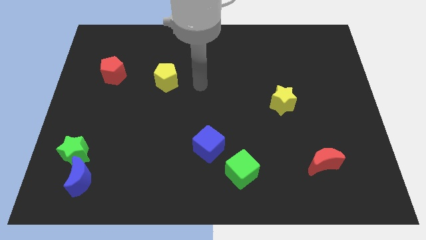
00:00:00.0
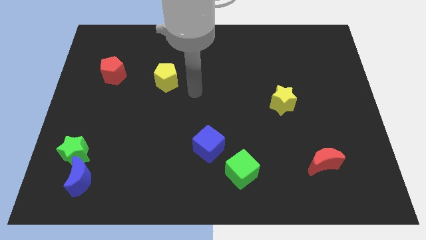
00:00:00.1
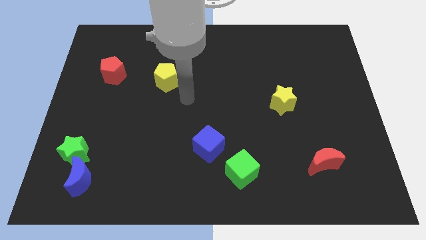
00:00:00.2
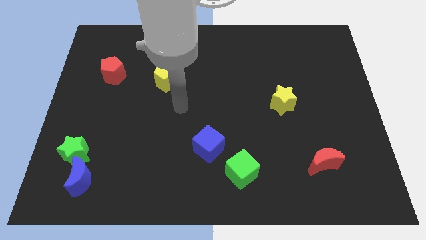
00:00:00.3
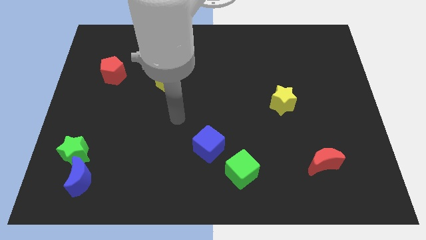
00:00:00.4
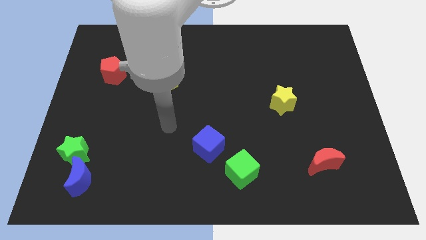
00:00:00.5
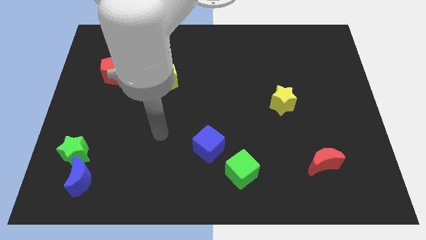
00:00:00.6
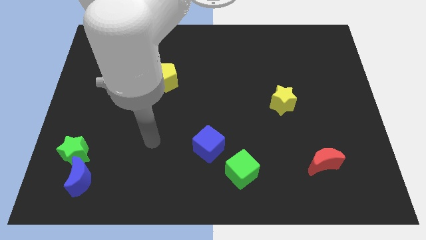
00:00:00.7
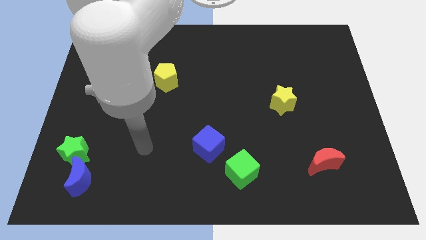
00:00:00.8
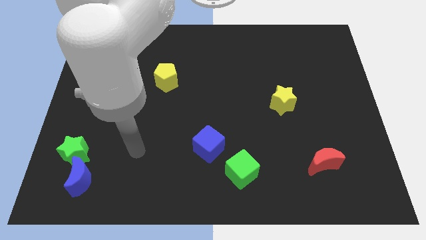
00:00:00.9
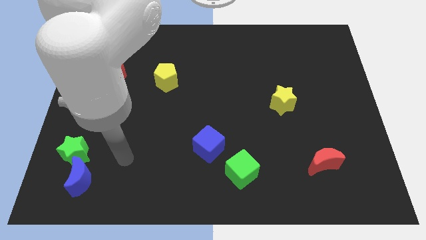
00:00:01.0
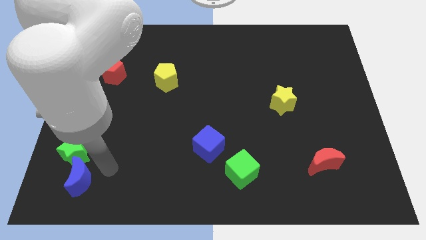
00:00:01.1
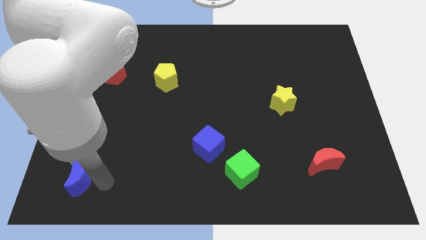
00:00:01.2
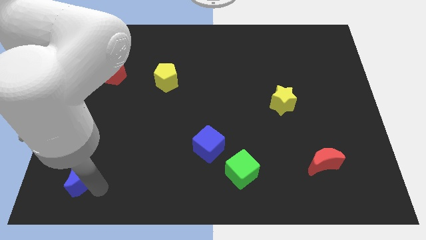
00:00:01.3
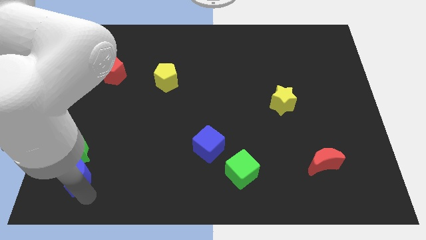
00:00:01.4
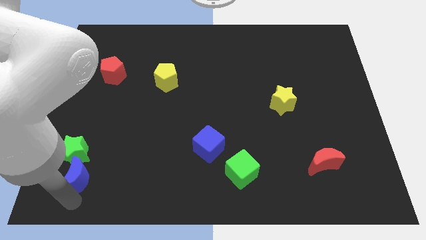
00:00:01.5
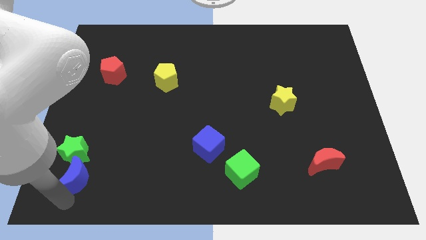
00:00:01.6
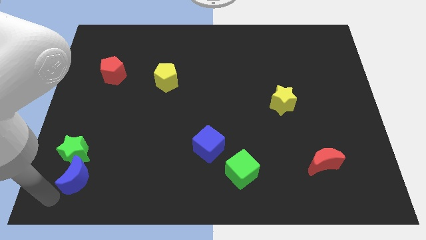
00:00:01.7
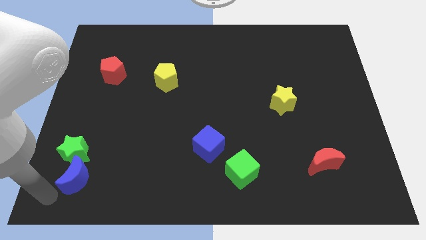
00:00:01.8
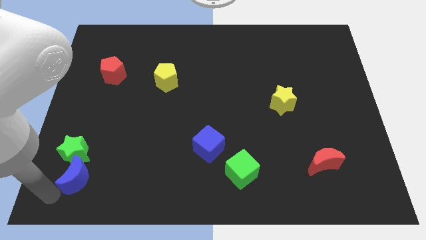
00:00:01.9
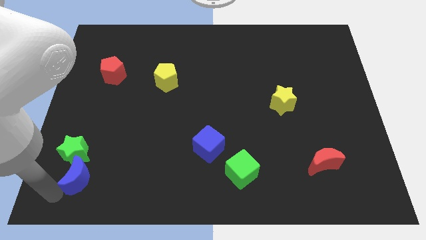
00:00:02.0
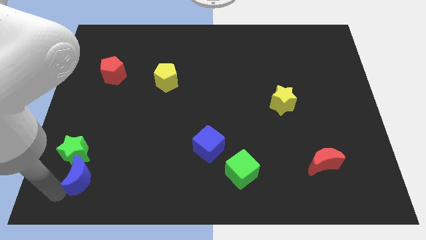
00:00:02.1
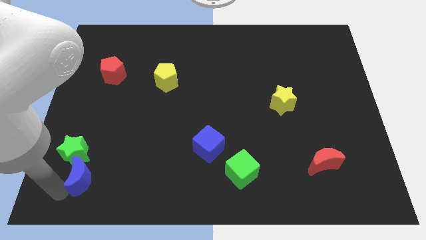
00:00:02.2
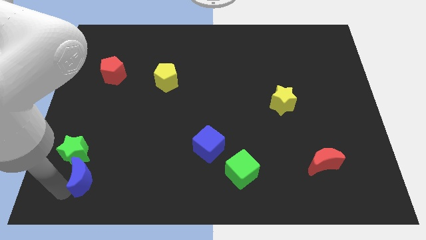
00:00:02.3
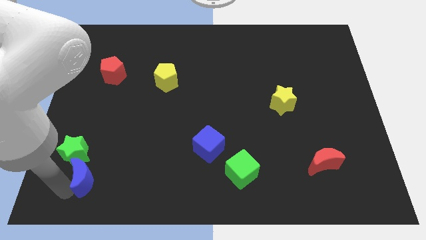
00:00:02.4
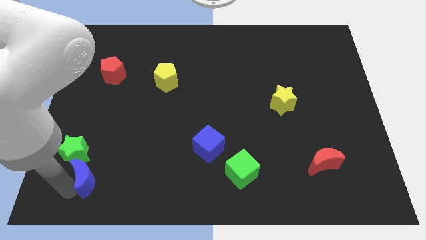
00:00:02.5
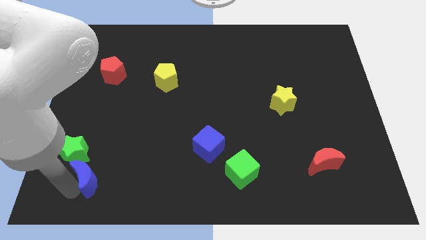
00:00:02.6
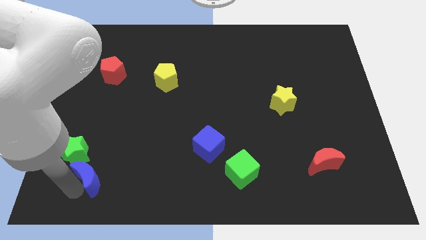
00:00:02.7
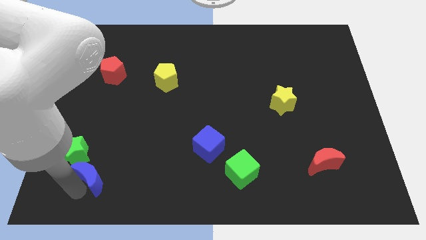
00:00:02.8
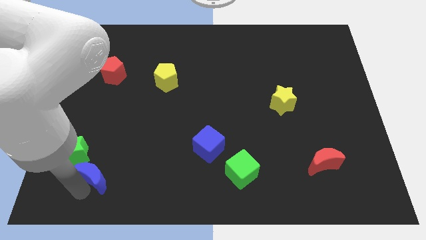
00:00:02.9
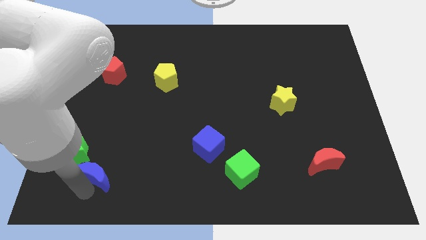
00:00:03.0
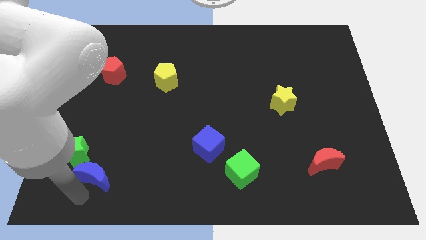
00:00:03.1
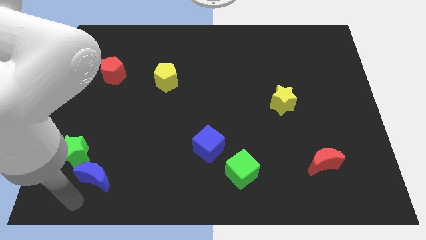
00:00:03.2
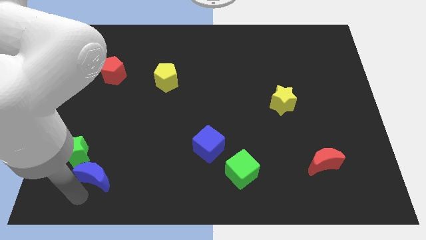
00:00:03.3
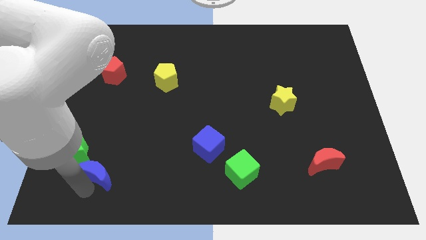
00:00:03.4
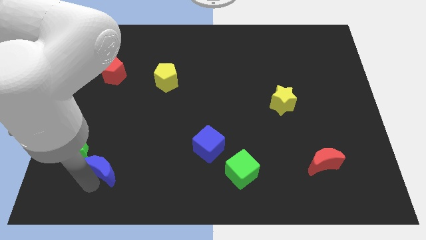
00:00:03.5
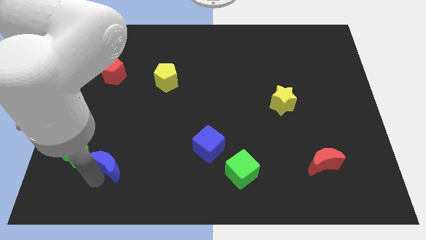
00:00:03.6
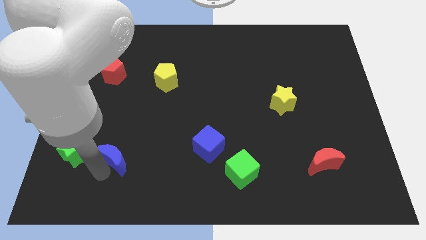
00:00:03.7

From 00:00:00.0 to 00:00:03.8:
push the blue moon a little bit up and then to the right

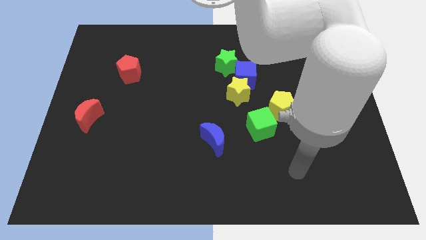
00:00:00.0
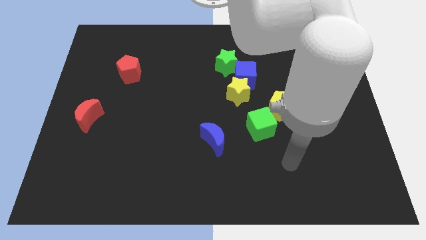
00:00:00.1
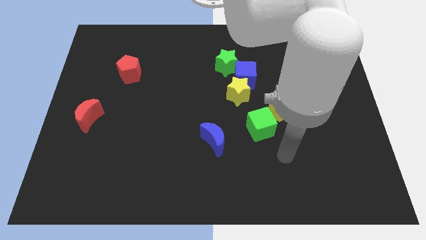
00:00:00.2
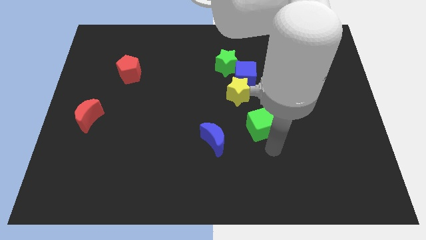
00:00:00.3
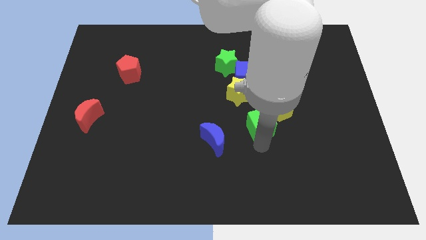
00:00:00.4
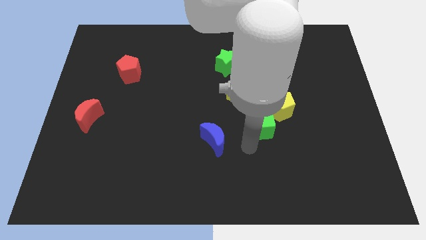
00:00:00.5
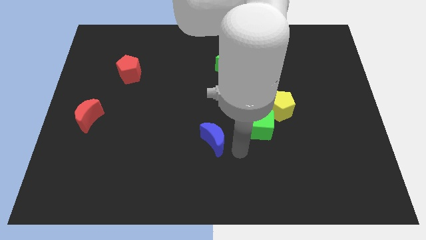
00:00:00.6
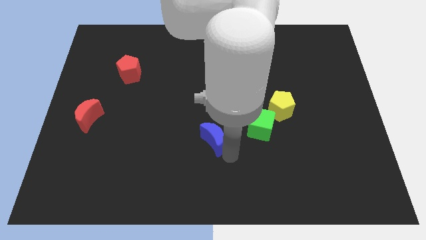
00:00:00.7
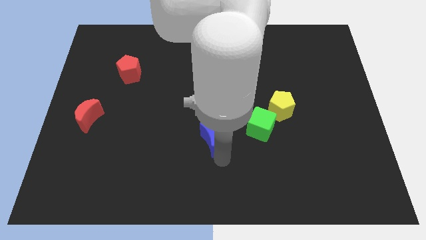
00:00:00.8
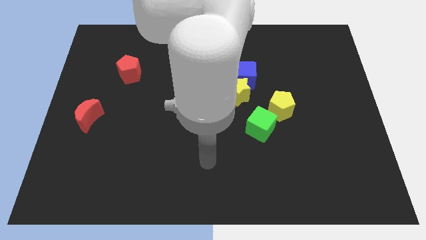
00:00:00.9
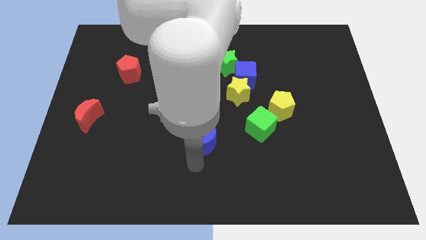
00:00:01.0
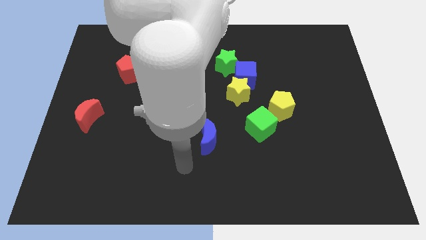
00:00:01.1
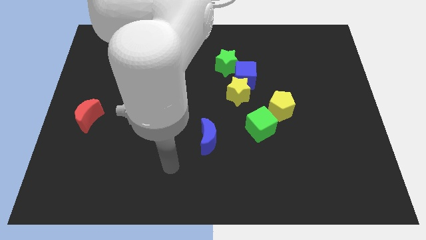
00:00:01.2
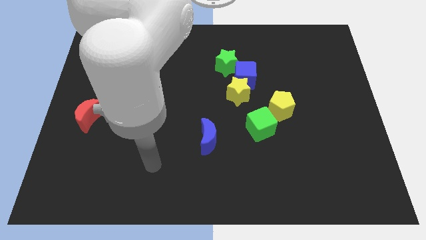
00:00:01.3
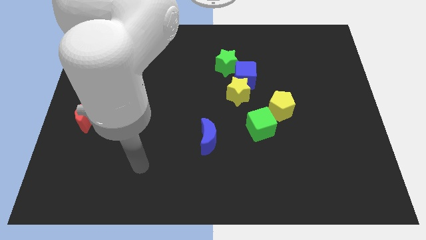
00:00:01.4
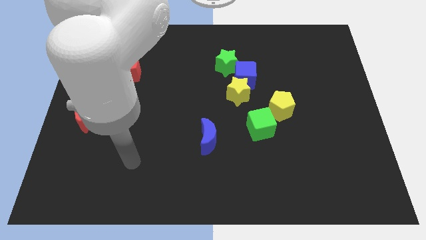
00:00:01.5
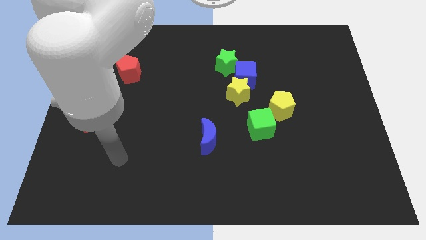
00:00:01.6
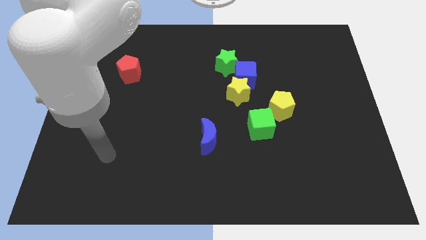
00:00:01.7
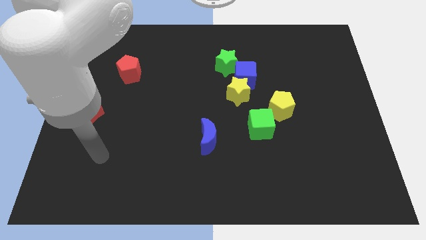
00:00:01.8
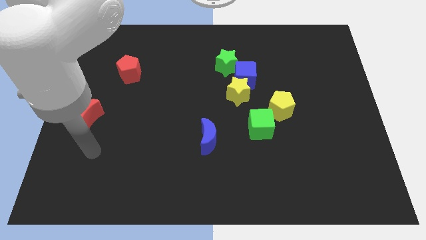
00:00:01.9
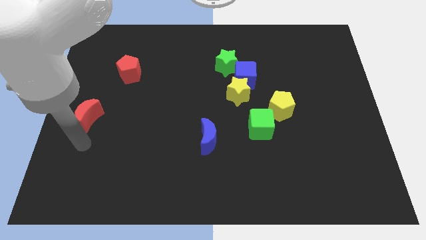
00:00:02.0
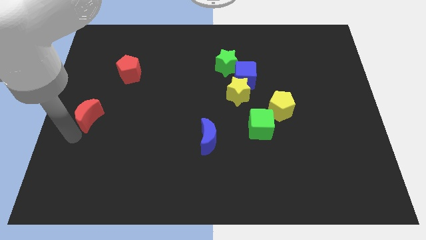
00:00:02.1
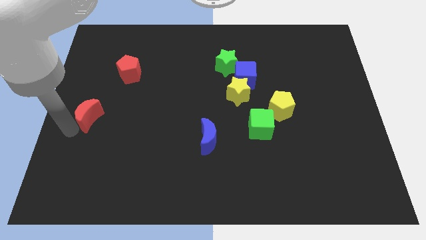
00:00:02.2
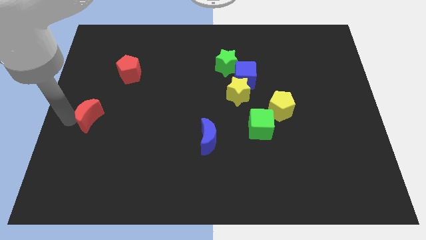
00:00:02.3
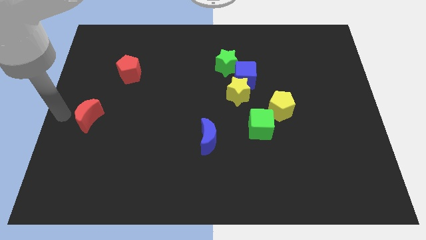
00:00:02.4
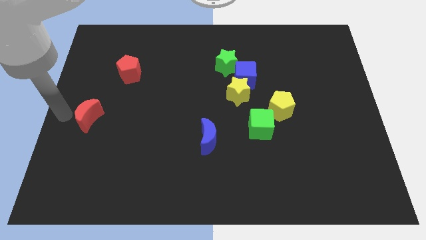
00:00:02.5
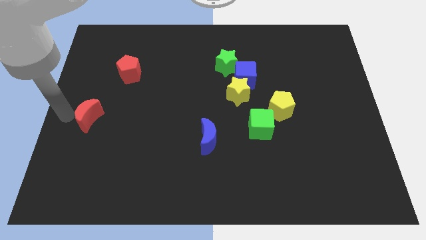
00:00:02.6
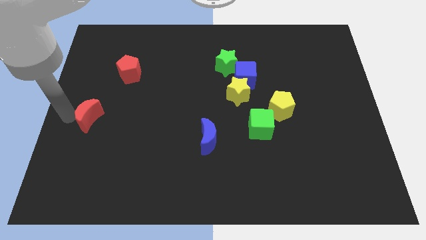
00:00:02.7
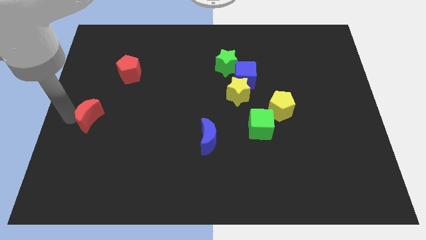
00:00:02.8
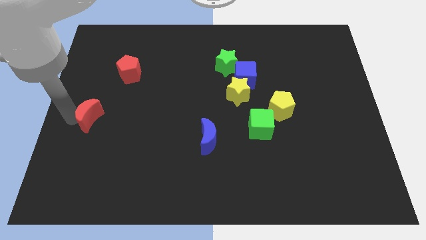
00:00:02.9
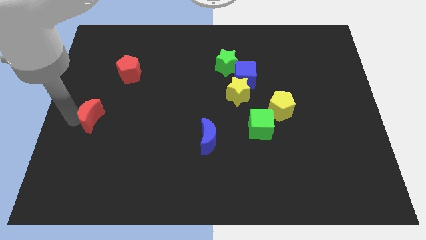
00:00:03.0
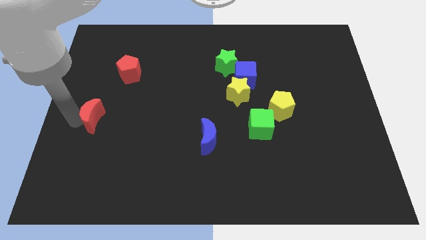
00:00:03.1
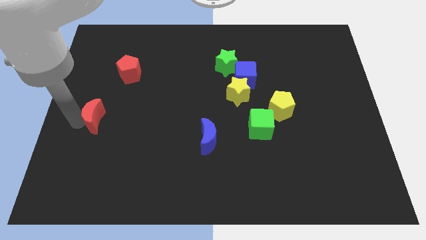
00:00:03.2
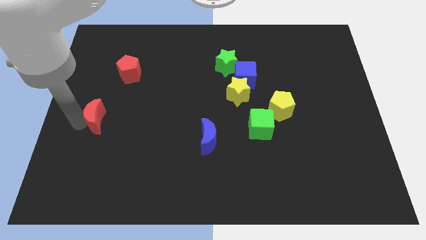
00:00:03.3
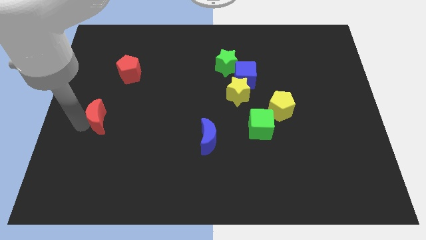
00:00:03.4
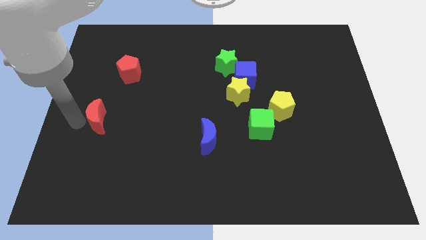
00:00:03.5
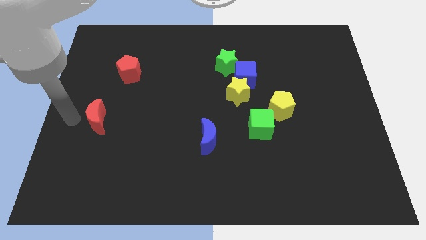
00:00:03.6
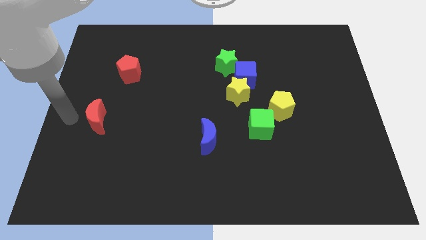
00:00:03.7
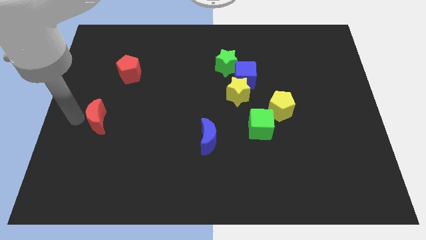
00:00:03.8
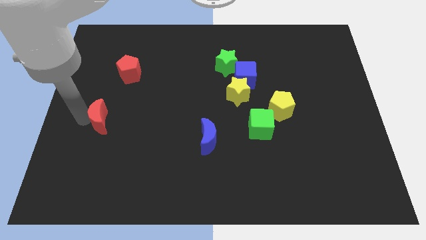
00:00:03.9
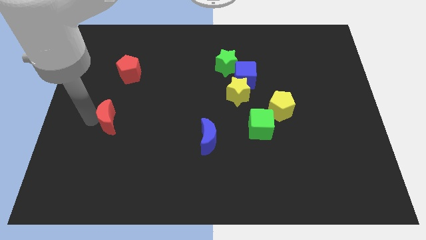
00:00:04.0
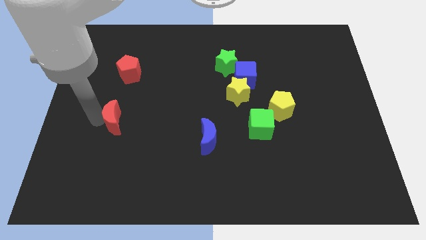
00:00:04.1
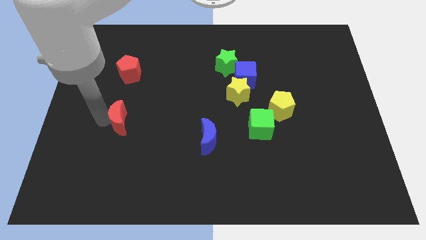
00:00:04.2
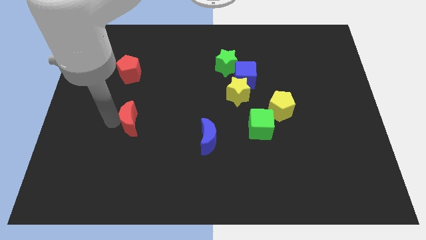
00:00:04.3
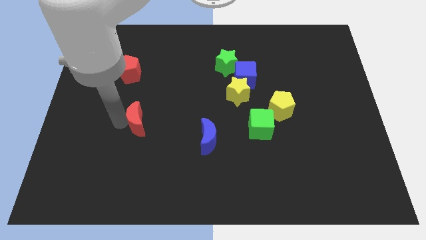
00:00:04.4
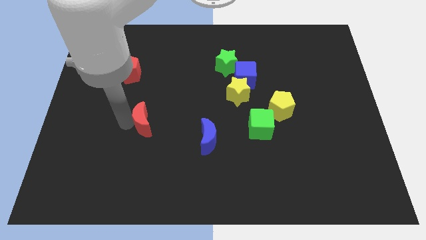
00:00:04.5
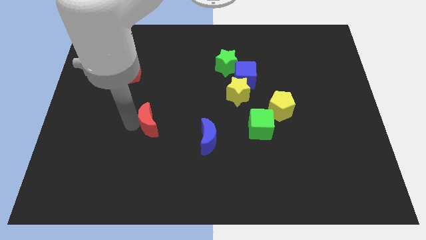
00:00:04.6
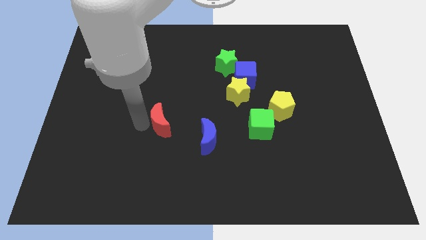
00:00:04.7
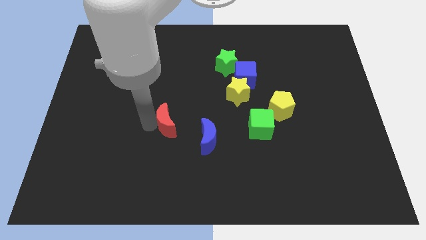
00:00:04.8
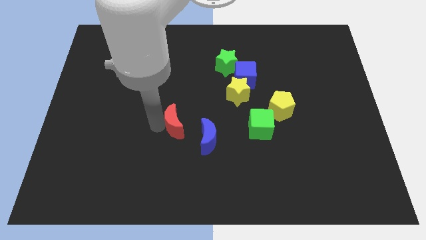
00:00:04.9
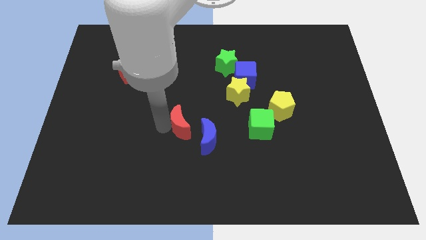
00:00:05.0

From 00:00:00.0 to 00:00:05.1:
slide the red moon right
